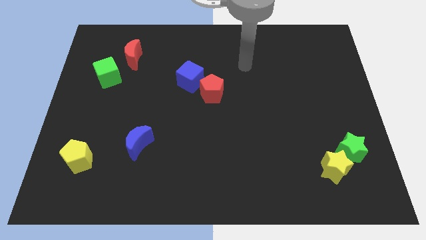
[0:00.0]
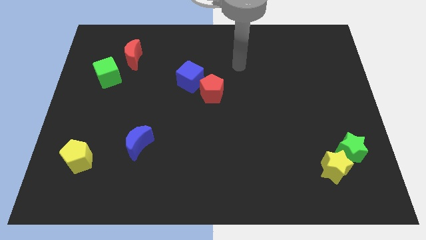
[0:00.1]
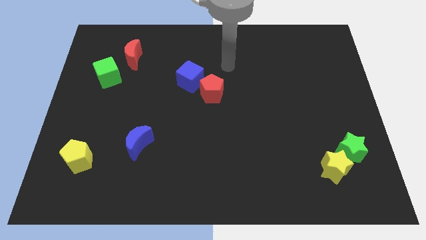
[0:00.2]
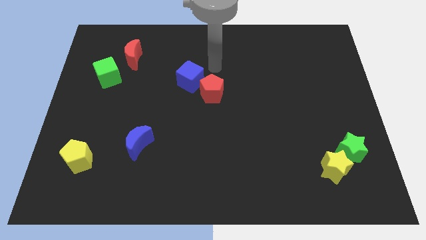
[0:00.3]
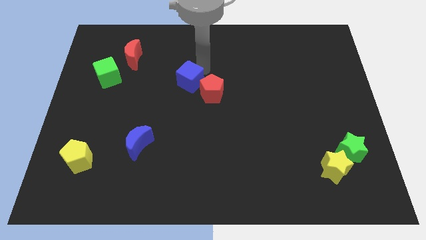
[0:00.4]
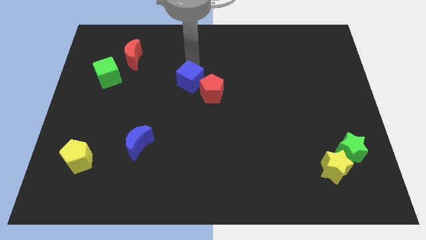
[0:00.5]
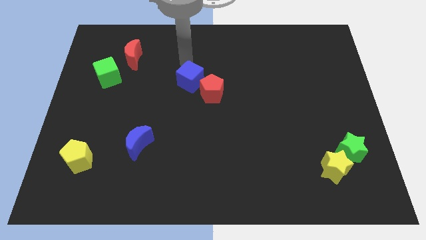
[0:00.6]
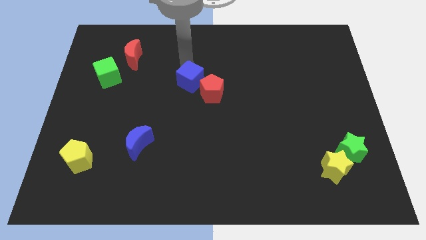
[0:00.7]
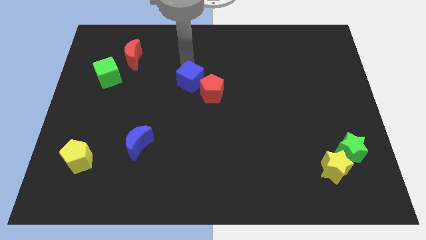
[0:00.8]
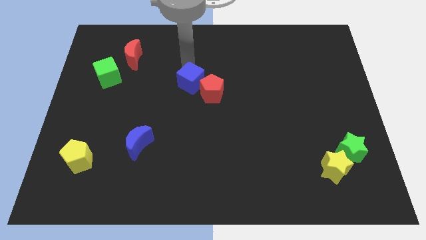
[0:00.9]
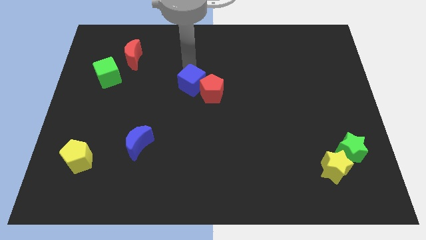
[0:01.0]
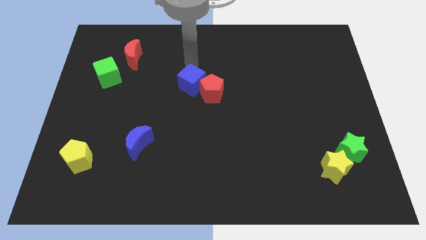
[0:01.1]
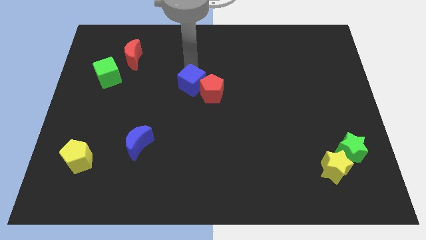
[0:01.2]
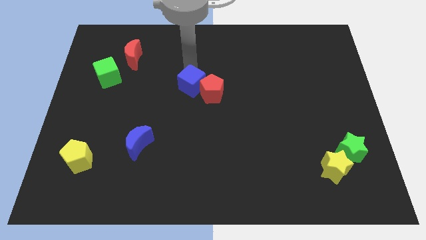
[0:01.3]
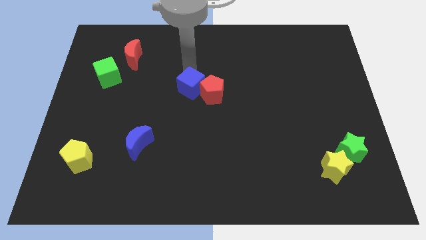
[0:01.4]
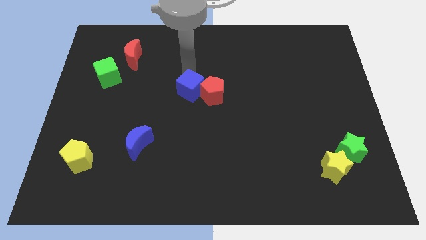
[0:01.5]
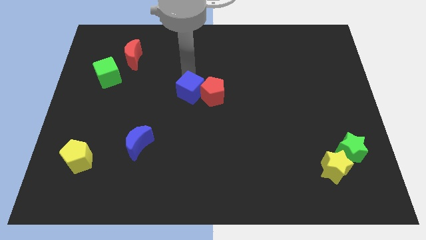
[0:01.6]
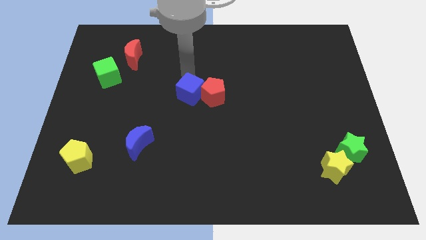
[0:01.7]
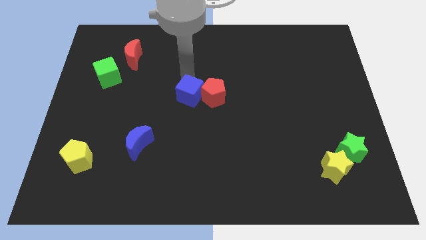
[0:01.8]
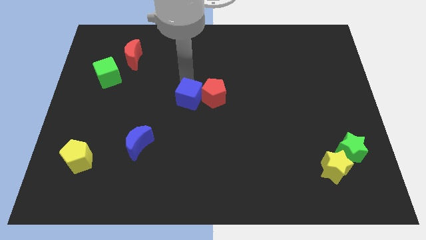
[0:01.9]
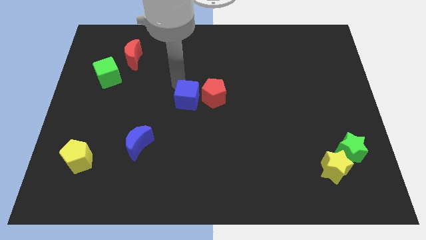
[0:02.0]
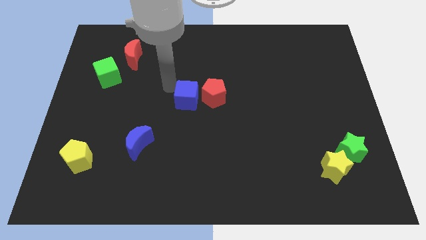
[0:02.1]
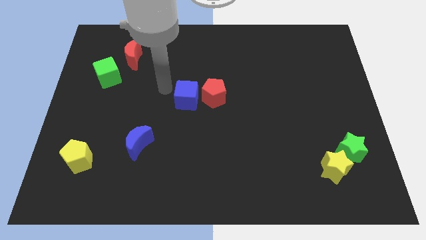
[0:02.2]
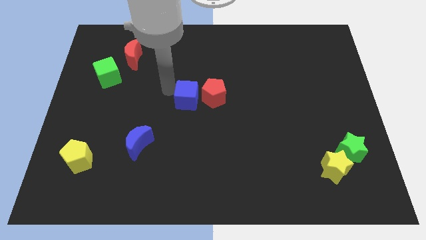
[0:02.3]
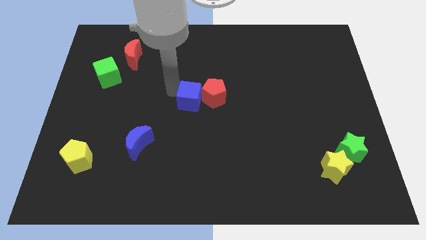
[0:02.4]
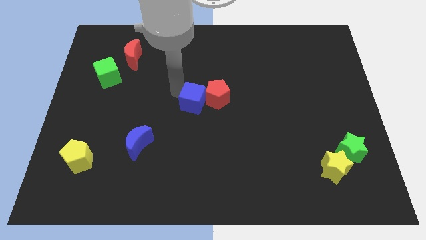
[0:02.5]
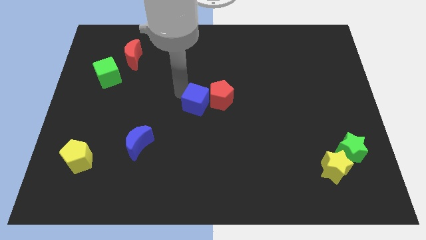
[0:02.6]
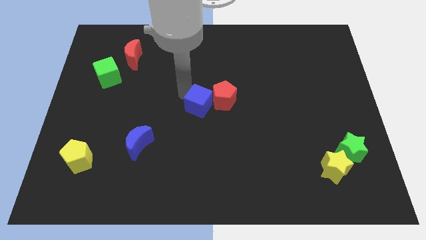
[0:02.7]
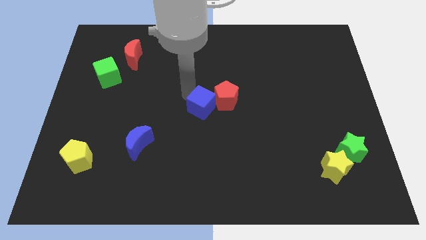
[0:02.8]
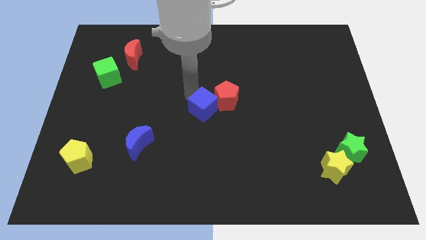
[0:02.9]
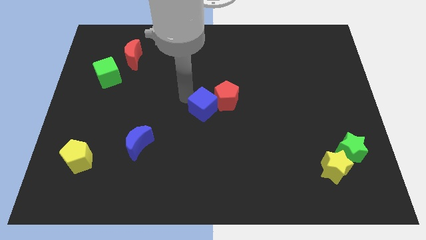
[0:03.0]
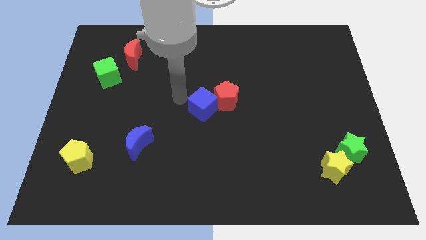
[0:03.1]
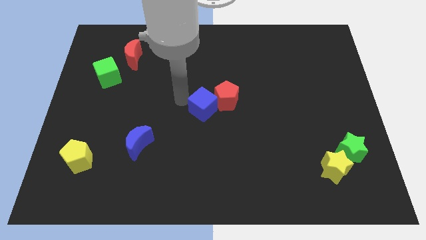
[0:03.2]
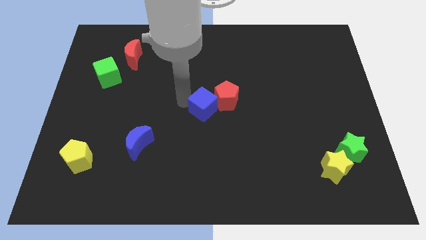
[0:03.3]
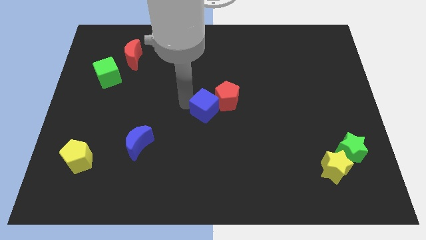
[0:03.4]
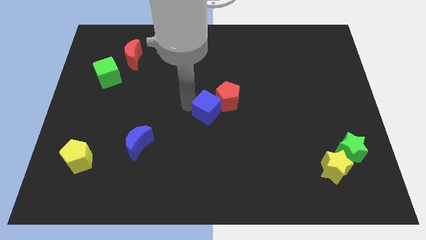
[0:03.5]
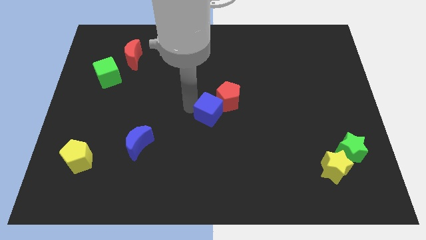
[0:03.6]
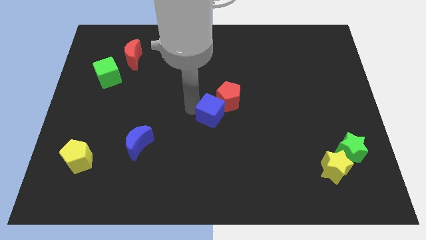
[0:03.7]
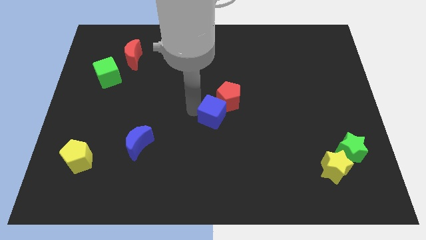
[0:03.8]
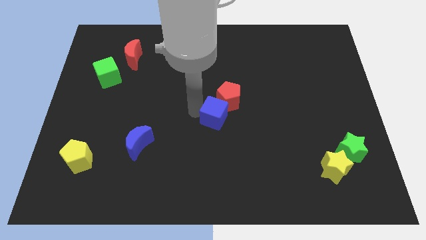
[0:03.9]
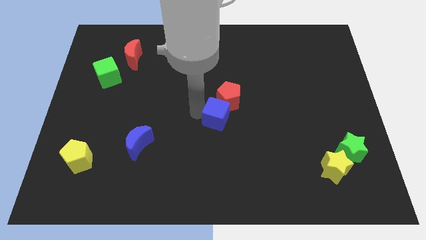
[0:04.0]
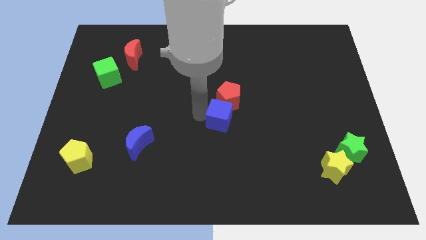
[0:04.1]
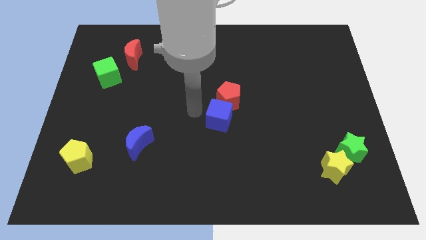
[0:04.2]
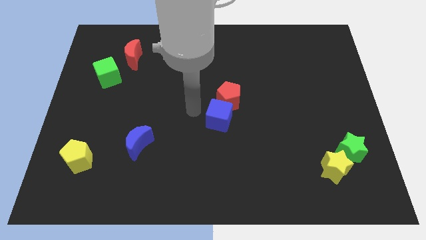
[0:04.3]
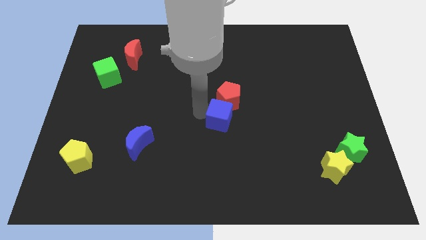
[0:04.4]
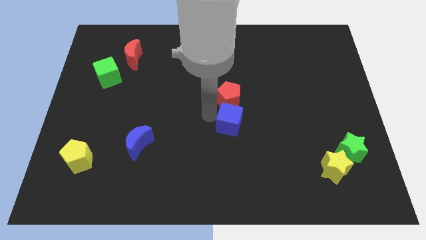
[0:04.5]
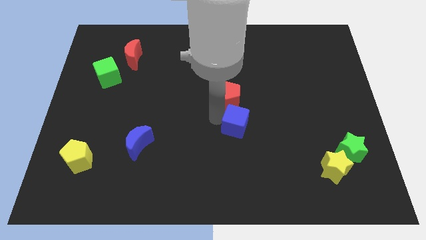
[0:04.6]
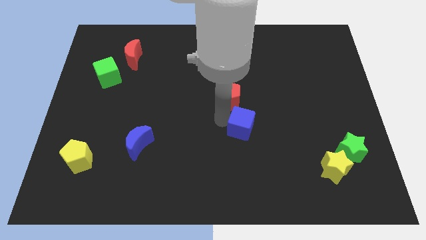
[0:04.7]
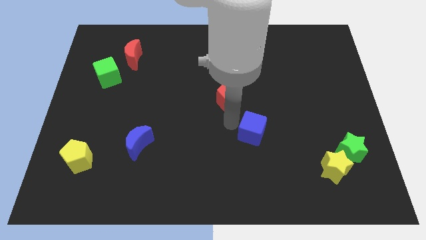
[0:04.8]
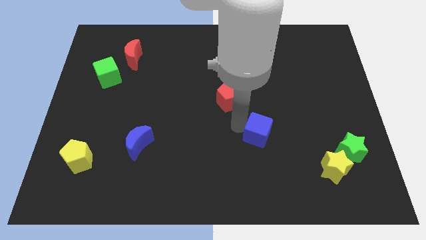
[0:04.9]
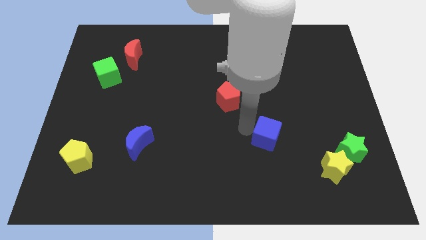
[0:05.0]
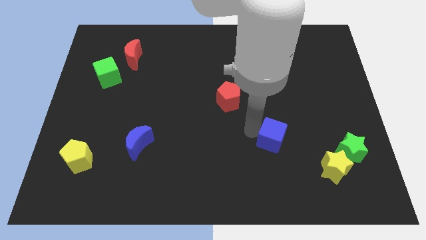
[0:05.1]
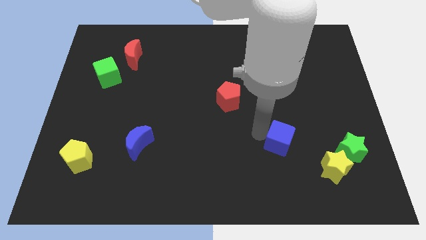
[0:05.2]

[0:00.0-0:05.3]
push the blue cube to the left of the green star

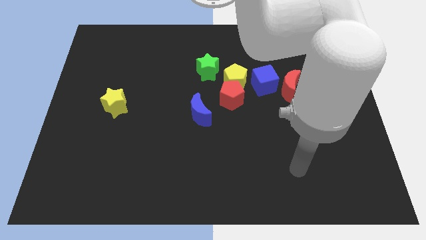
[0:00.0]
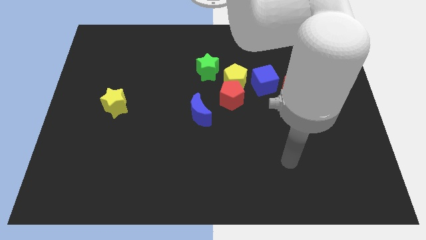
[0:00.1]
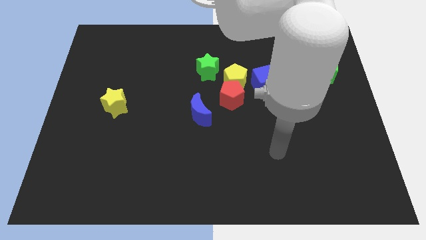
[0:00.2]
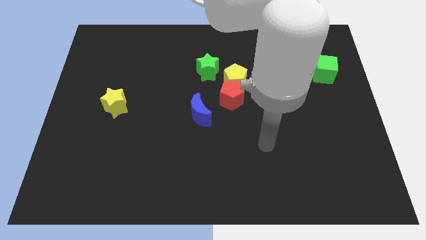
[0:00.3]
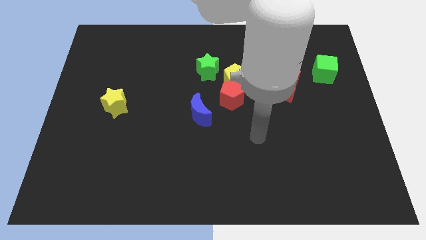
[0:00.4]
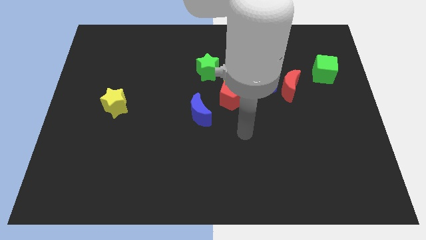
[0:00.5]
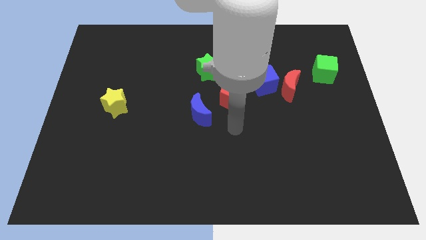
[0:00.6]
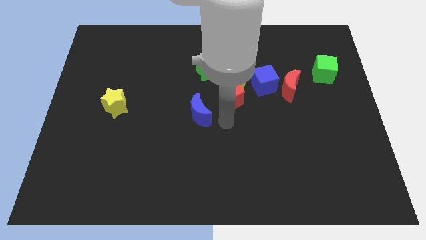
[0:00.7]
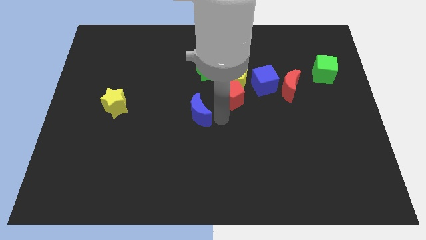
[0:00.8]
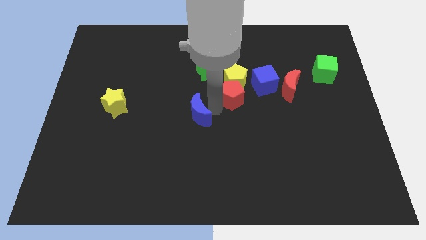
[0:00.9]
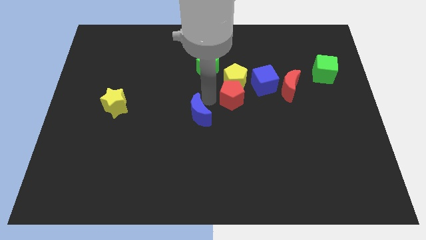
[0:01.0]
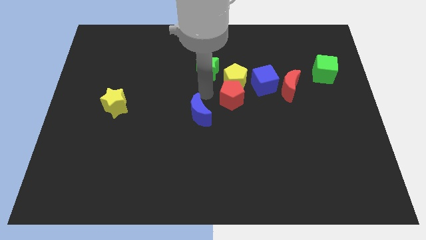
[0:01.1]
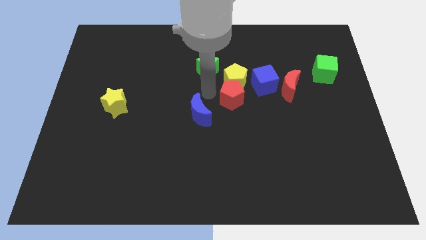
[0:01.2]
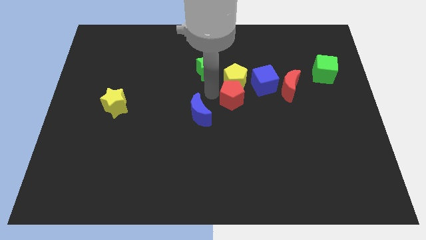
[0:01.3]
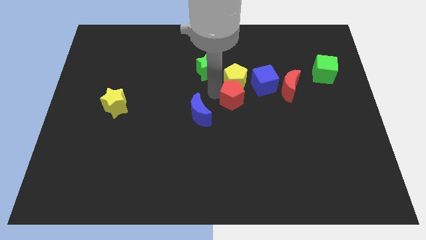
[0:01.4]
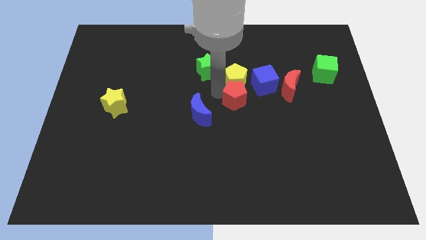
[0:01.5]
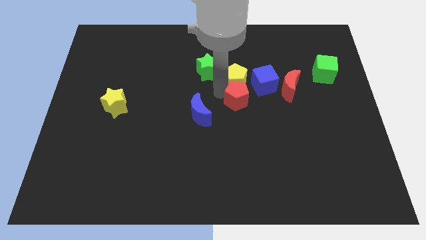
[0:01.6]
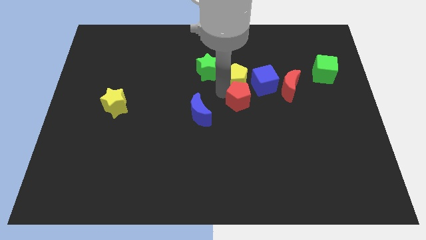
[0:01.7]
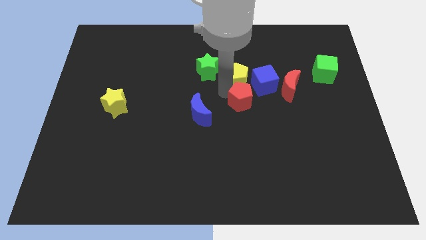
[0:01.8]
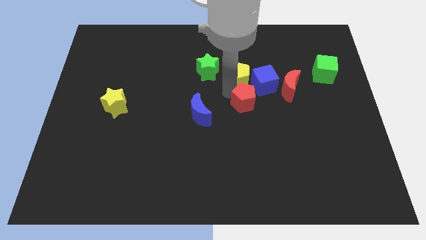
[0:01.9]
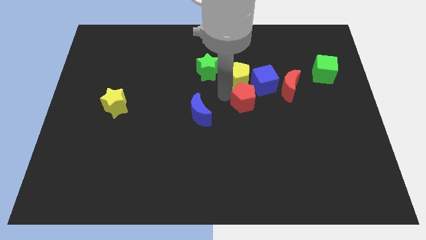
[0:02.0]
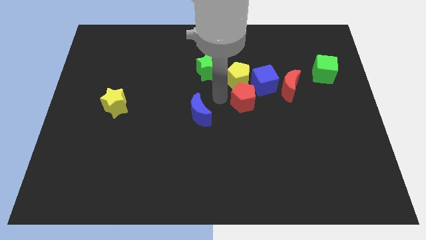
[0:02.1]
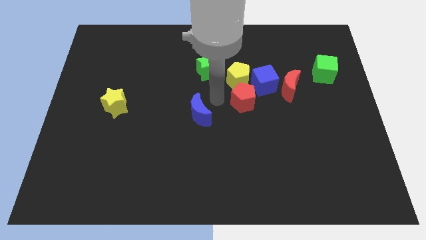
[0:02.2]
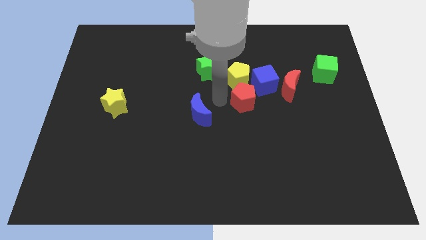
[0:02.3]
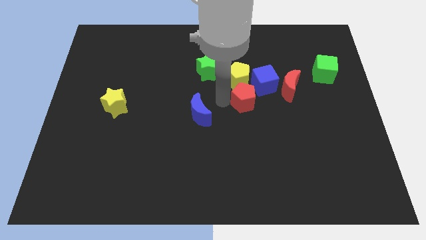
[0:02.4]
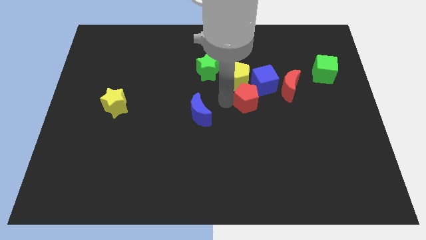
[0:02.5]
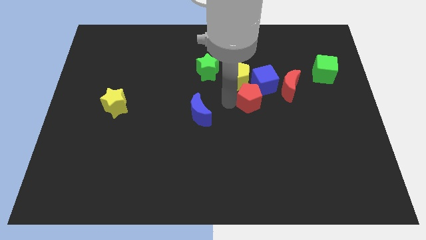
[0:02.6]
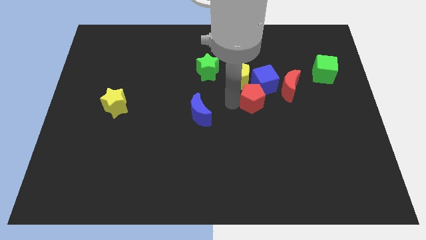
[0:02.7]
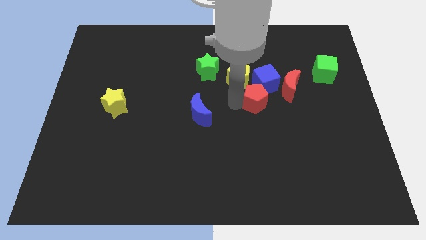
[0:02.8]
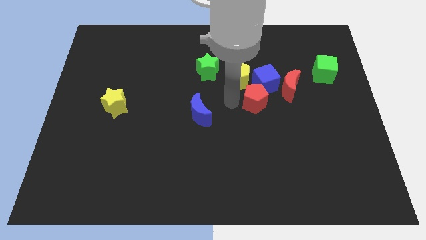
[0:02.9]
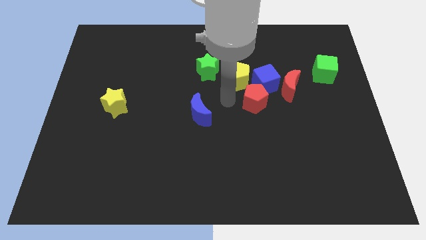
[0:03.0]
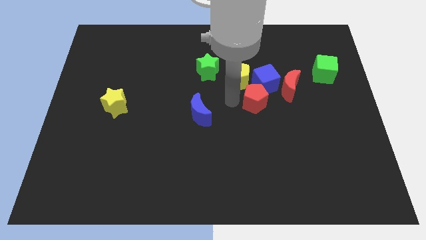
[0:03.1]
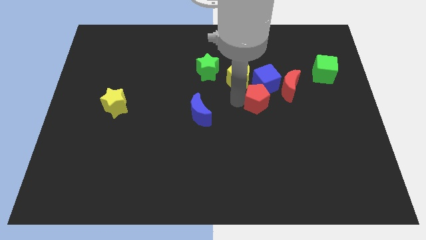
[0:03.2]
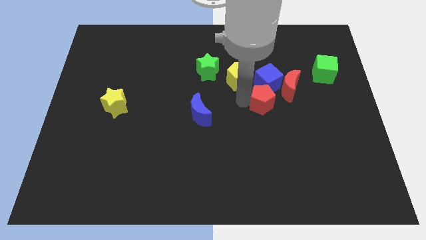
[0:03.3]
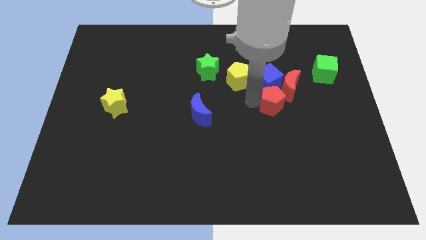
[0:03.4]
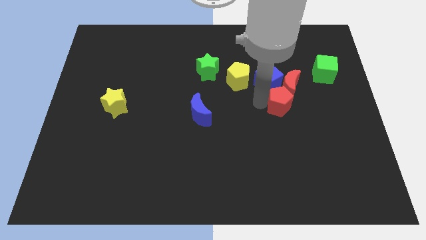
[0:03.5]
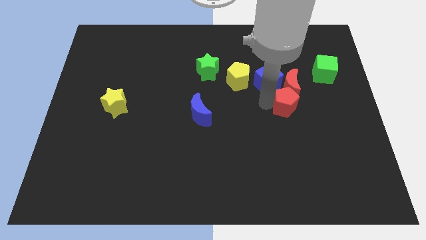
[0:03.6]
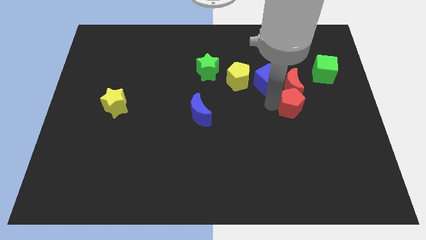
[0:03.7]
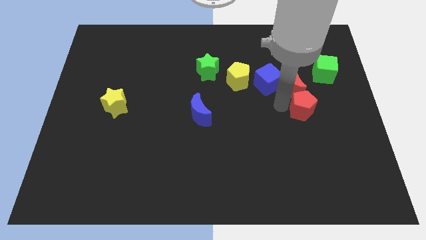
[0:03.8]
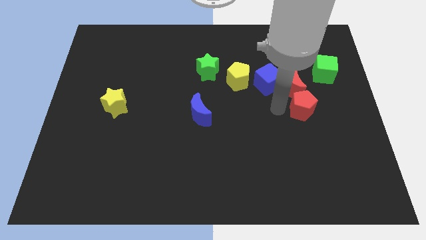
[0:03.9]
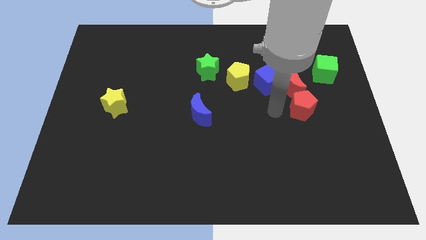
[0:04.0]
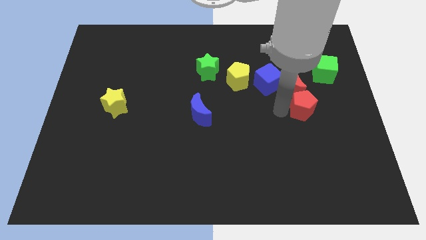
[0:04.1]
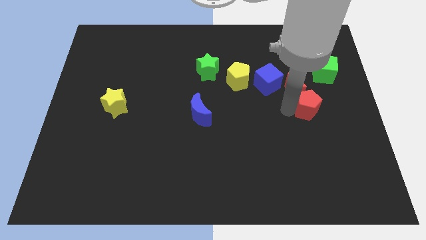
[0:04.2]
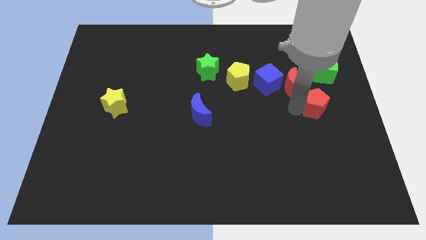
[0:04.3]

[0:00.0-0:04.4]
move the red pentagon to the bottom of the green cube
